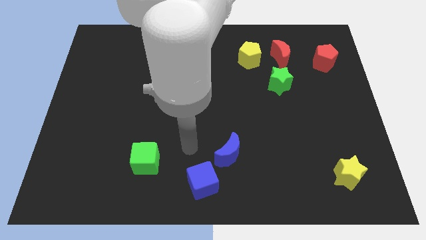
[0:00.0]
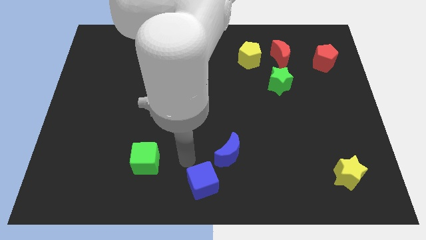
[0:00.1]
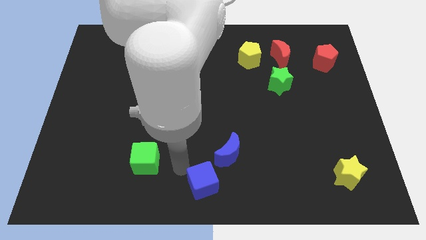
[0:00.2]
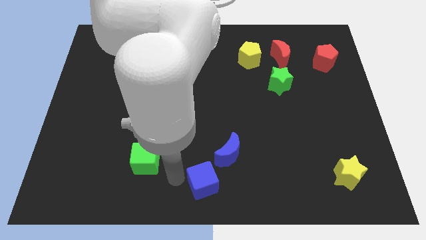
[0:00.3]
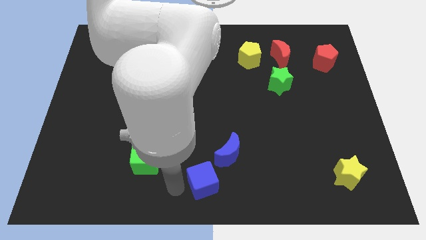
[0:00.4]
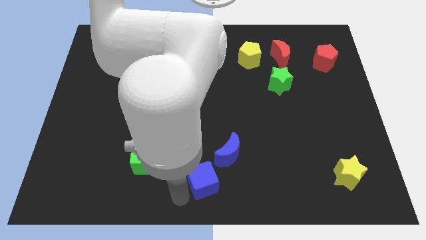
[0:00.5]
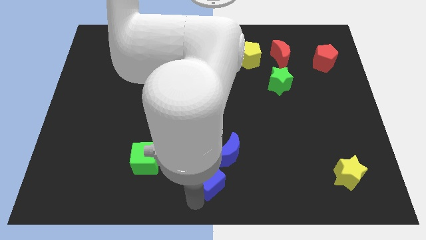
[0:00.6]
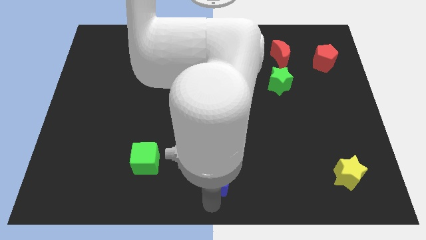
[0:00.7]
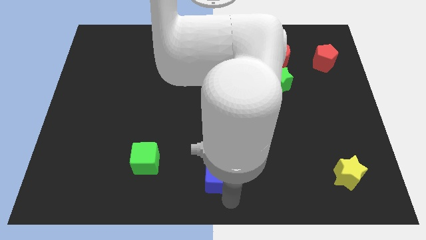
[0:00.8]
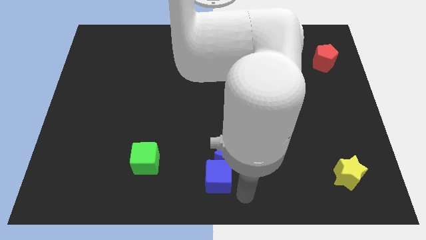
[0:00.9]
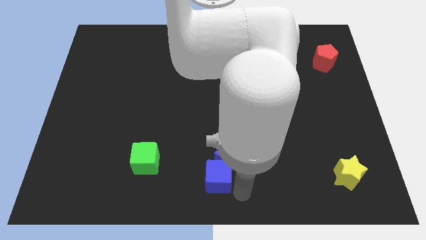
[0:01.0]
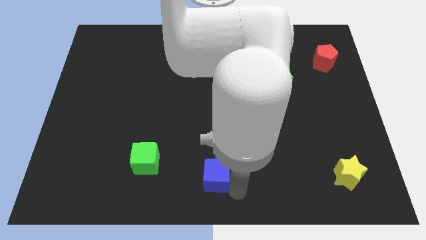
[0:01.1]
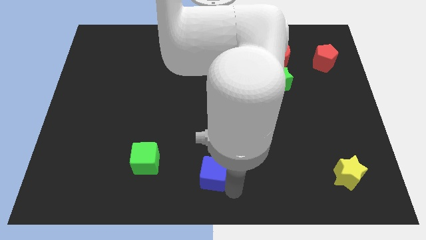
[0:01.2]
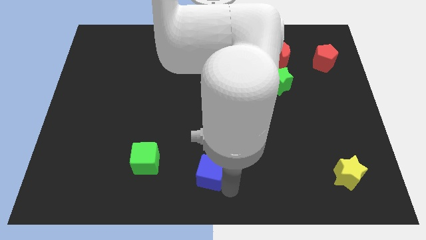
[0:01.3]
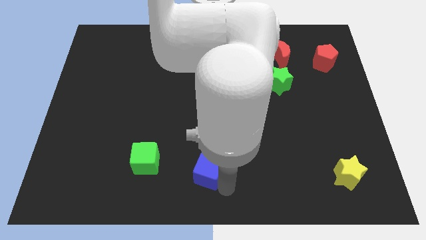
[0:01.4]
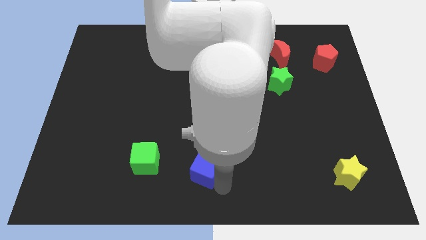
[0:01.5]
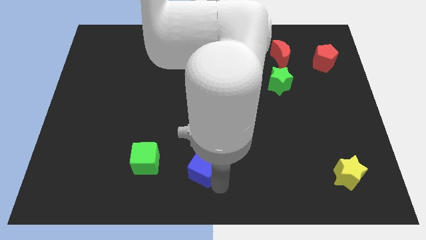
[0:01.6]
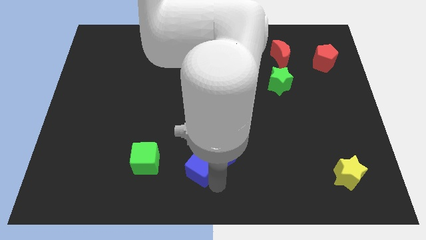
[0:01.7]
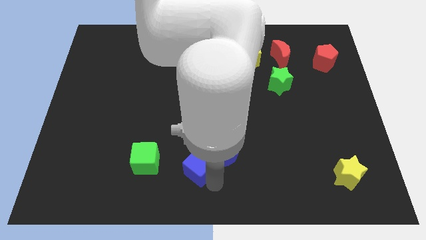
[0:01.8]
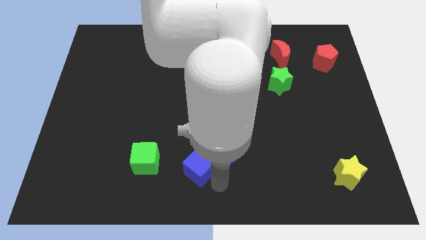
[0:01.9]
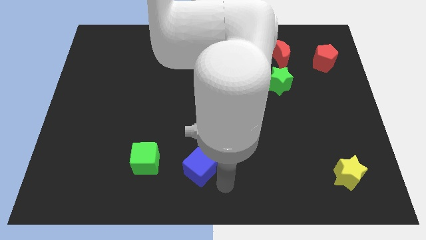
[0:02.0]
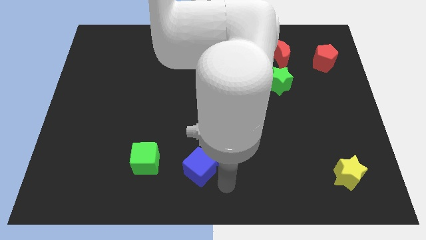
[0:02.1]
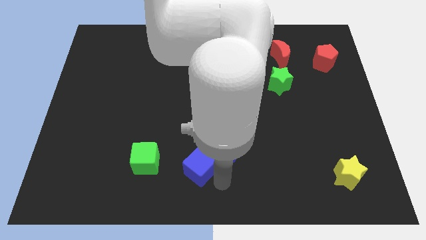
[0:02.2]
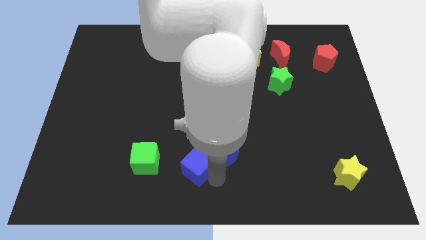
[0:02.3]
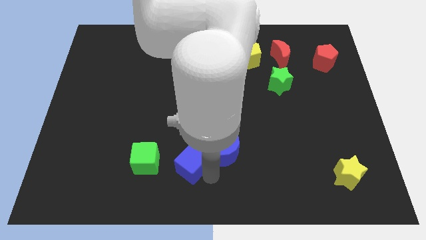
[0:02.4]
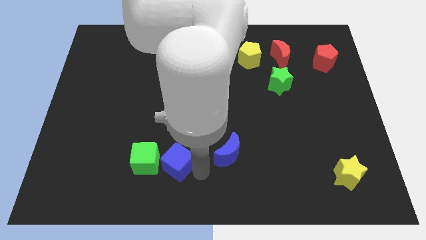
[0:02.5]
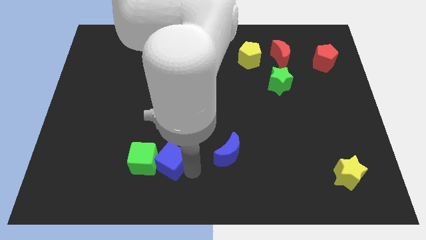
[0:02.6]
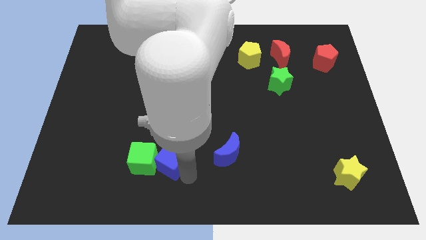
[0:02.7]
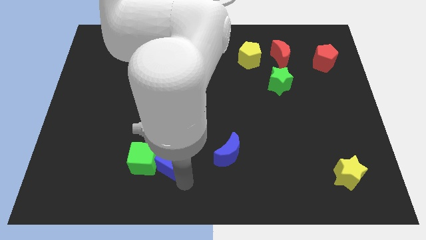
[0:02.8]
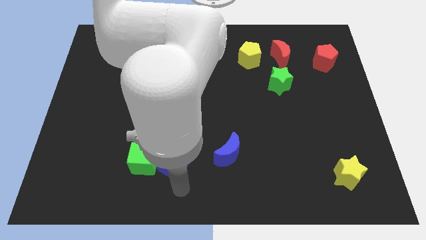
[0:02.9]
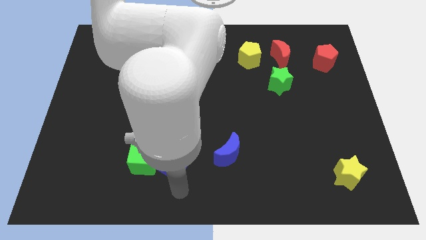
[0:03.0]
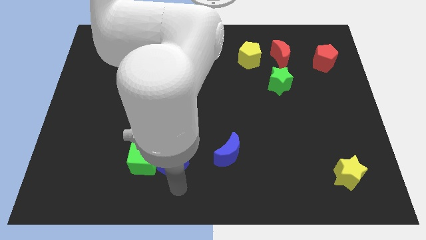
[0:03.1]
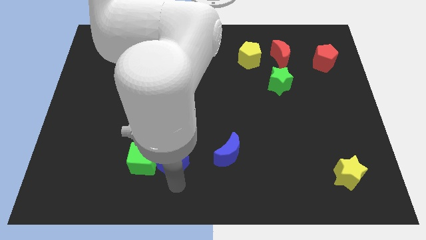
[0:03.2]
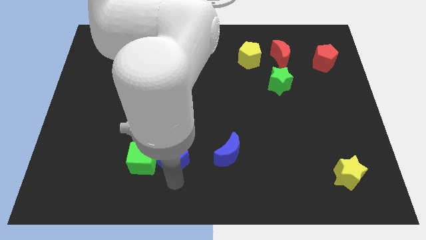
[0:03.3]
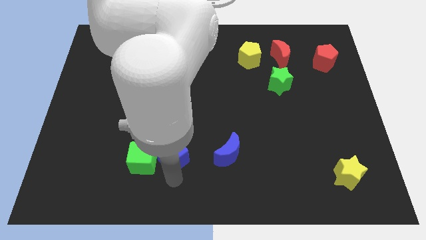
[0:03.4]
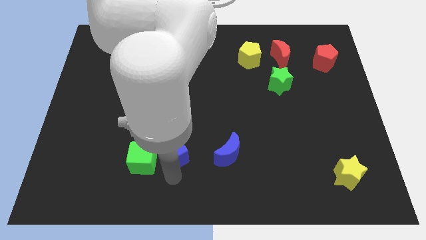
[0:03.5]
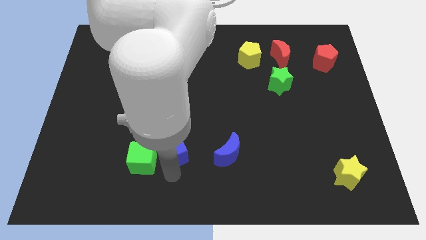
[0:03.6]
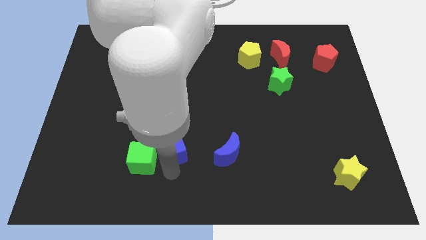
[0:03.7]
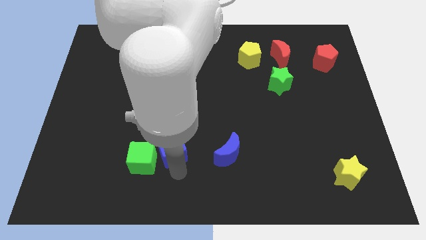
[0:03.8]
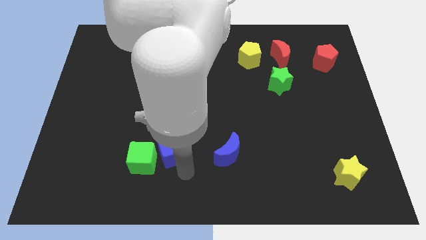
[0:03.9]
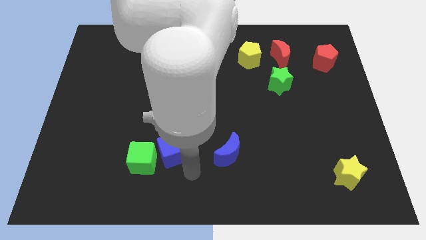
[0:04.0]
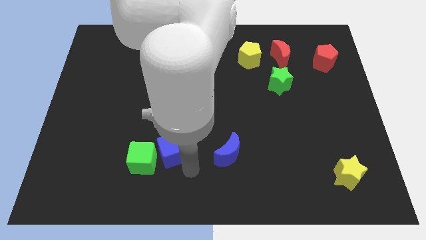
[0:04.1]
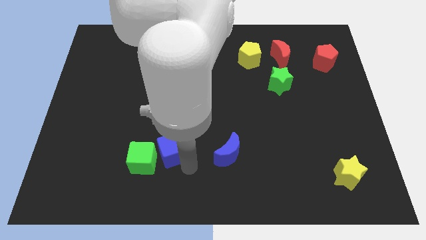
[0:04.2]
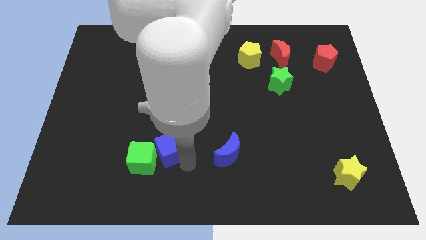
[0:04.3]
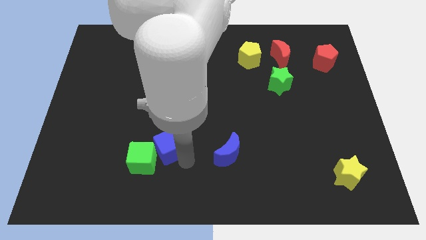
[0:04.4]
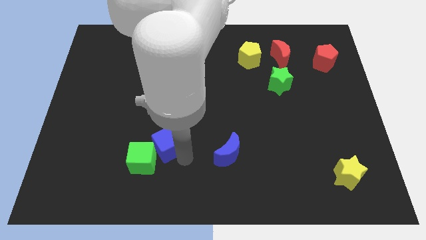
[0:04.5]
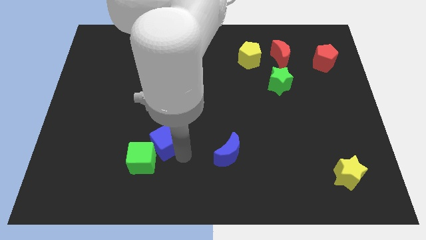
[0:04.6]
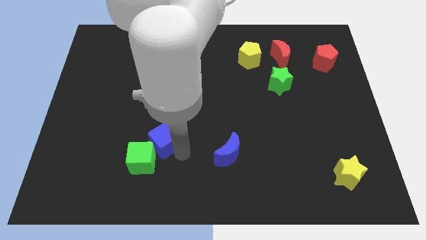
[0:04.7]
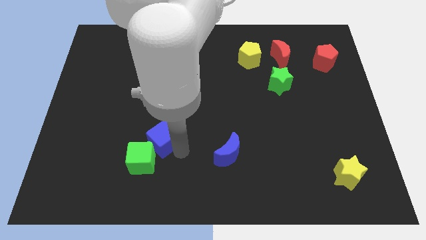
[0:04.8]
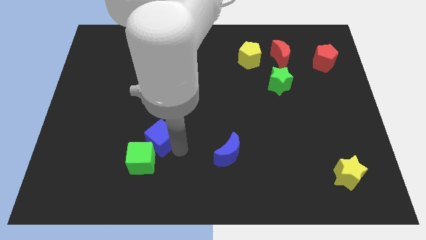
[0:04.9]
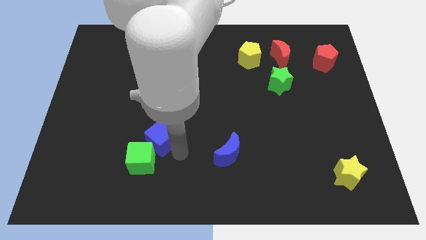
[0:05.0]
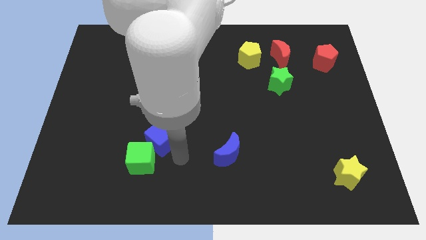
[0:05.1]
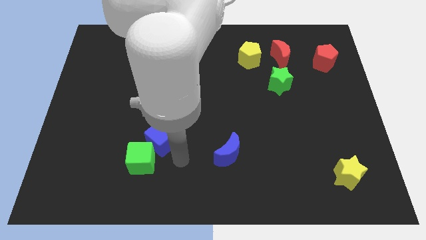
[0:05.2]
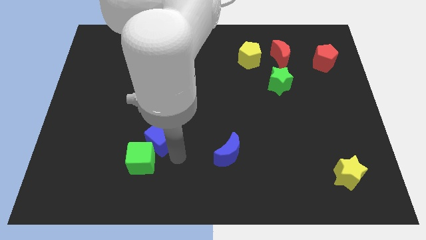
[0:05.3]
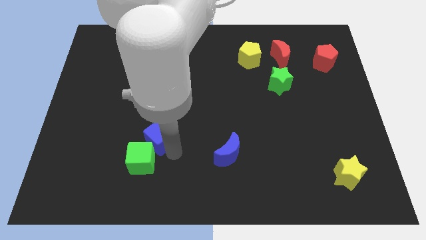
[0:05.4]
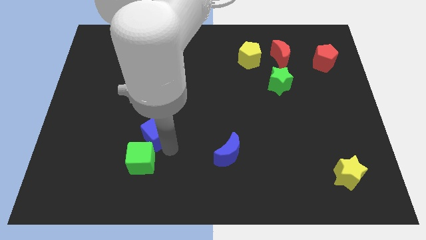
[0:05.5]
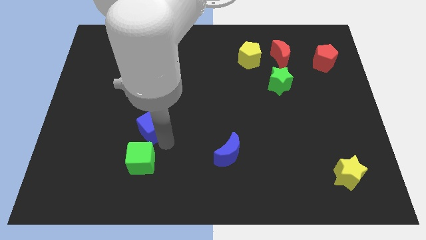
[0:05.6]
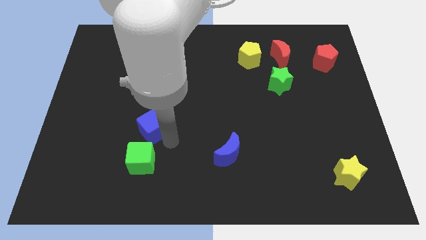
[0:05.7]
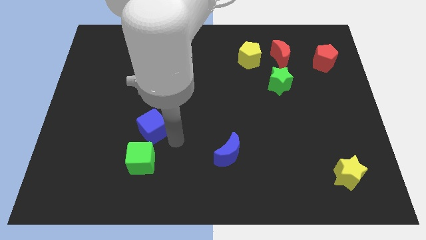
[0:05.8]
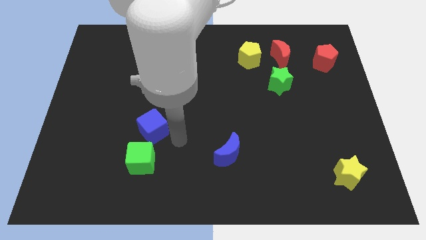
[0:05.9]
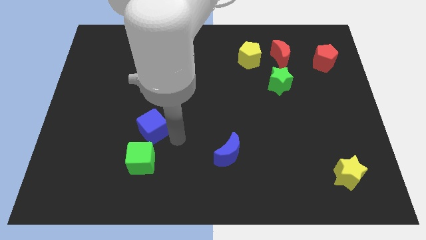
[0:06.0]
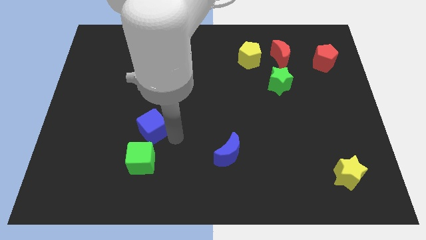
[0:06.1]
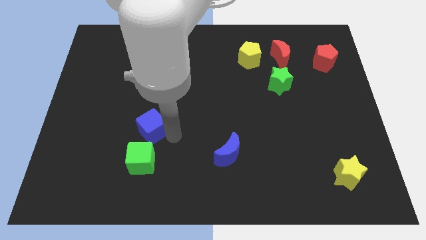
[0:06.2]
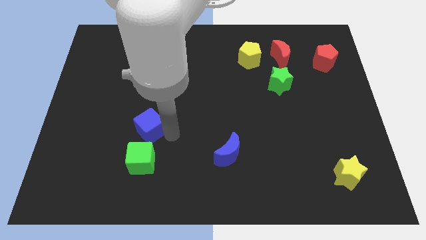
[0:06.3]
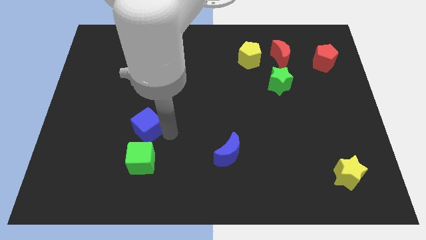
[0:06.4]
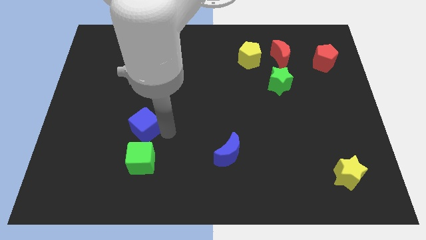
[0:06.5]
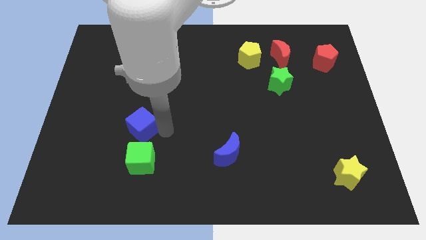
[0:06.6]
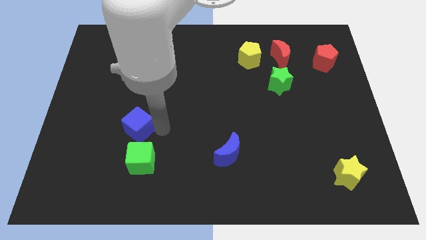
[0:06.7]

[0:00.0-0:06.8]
push the blue cube up and left diagonally

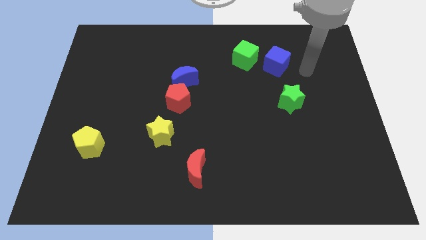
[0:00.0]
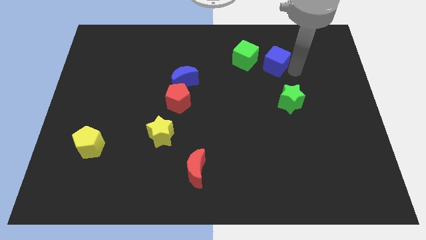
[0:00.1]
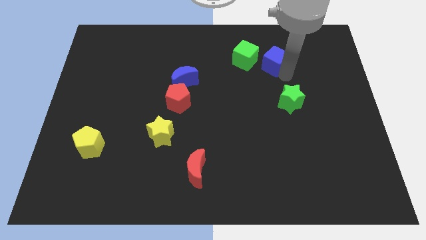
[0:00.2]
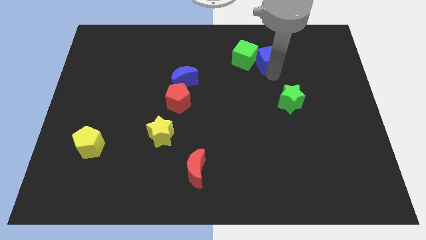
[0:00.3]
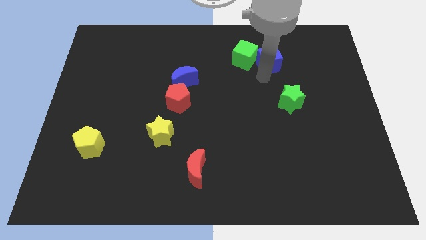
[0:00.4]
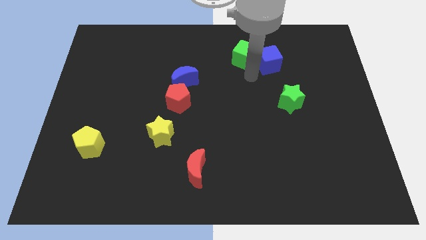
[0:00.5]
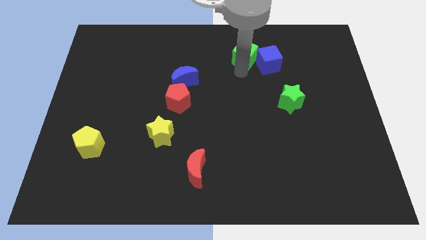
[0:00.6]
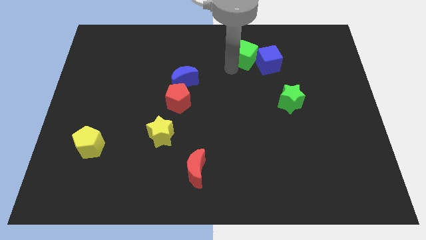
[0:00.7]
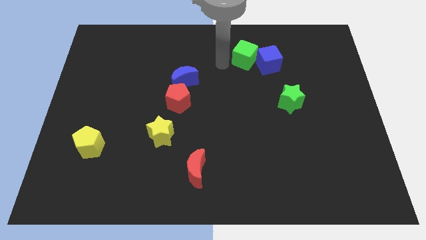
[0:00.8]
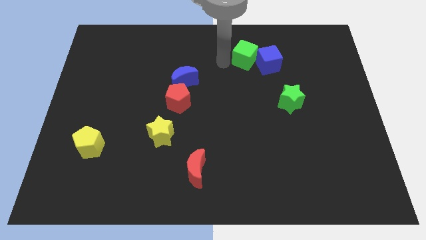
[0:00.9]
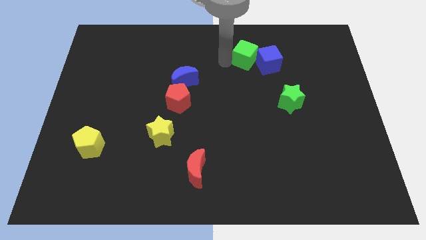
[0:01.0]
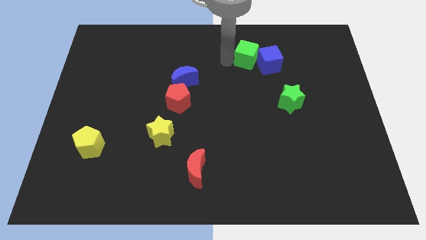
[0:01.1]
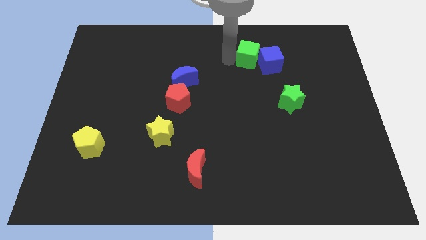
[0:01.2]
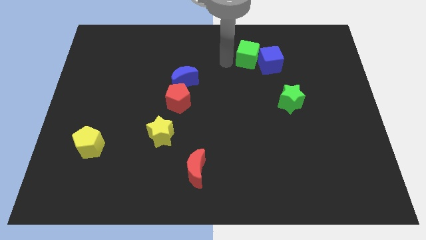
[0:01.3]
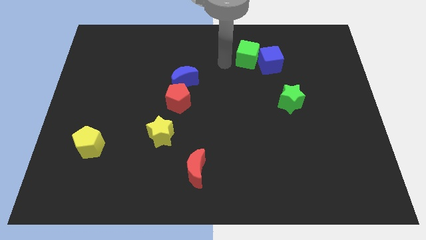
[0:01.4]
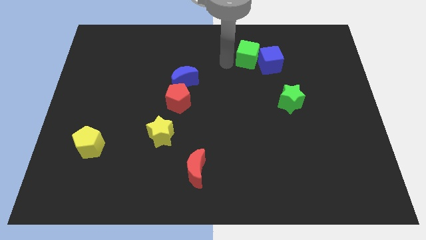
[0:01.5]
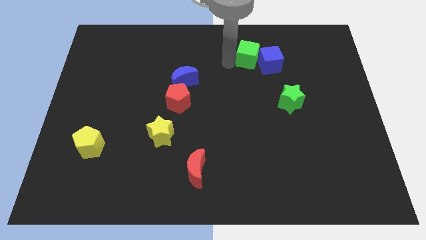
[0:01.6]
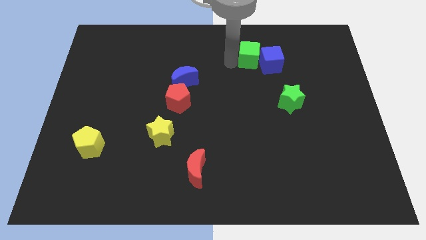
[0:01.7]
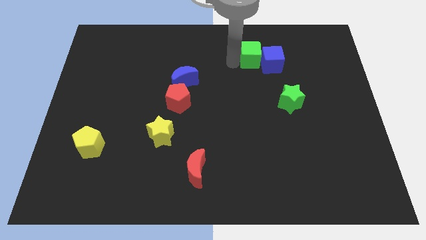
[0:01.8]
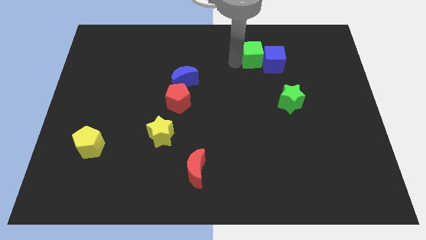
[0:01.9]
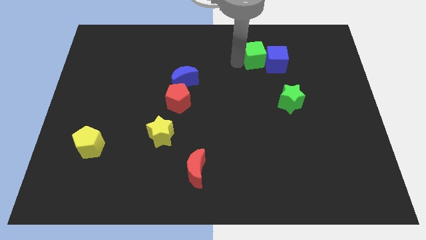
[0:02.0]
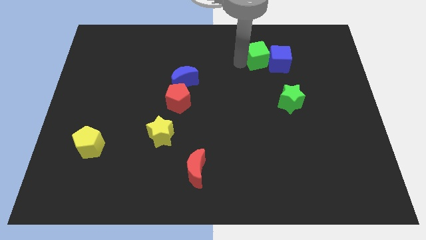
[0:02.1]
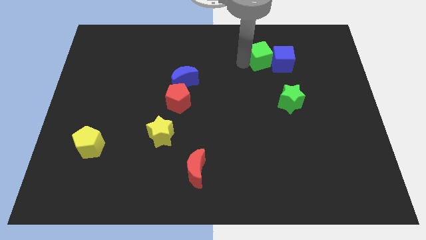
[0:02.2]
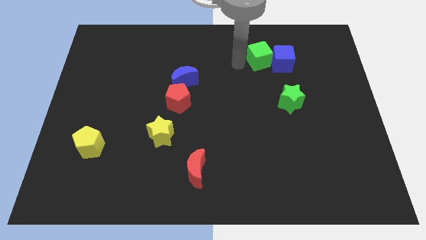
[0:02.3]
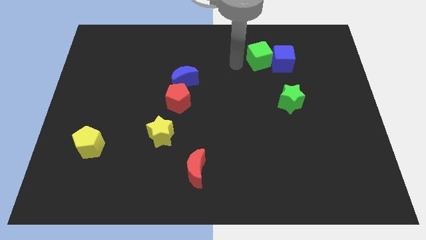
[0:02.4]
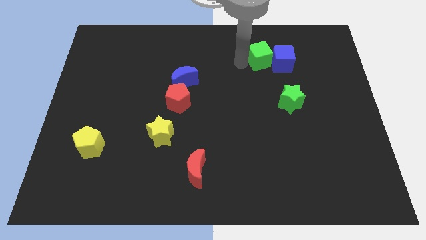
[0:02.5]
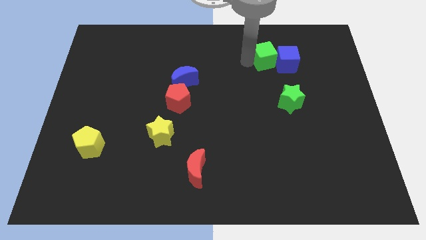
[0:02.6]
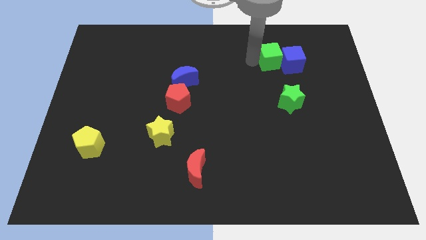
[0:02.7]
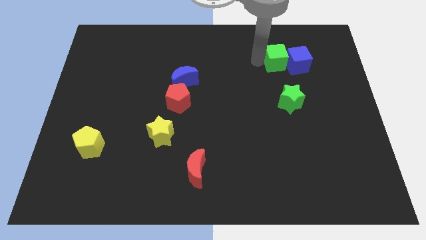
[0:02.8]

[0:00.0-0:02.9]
move the green cube slightly to the right
